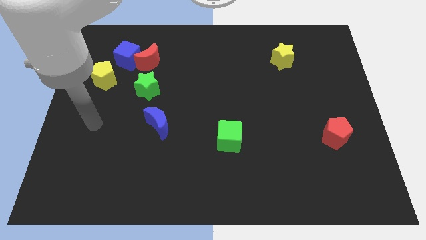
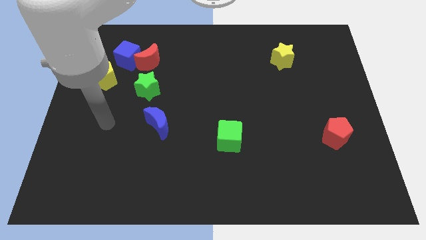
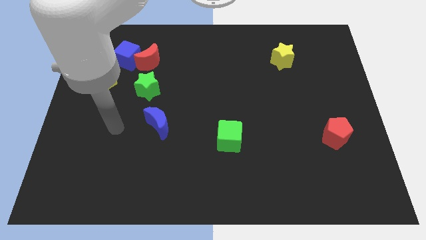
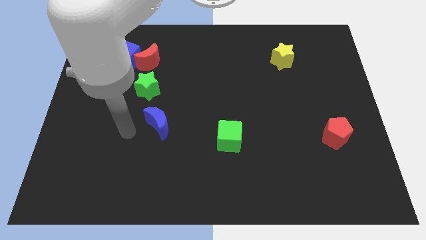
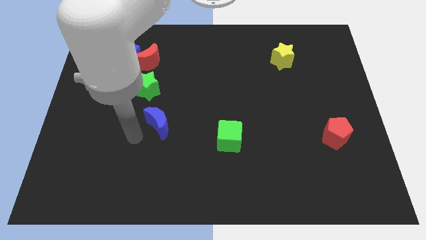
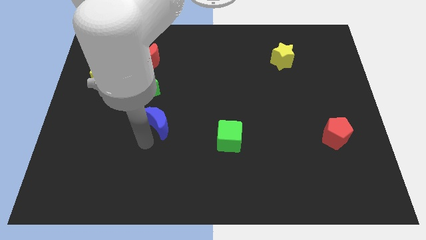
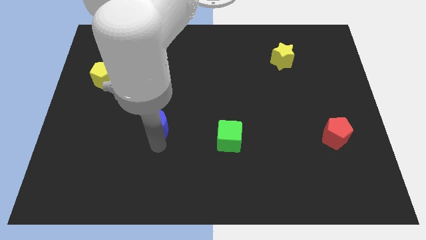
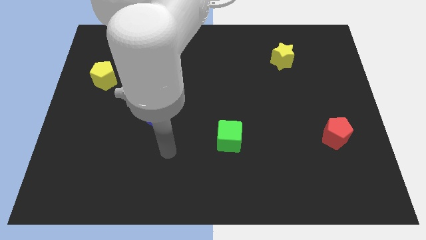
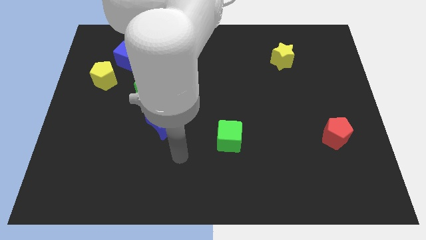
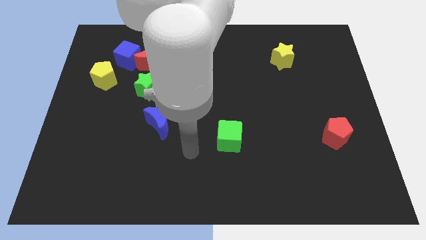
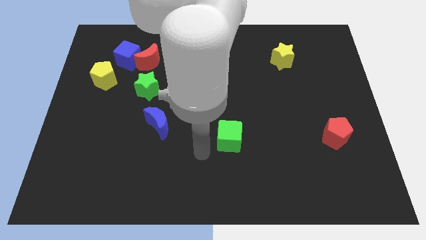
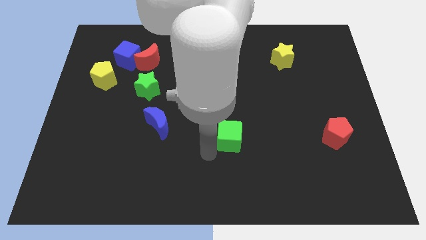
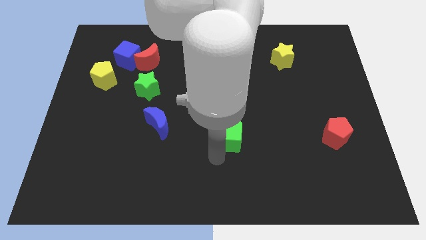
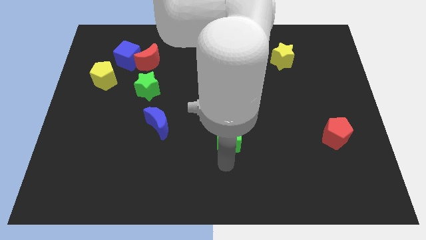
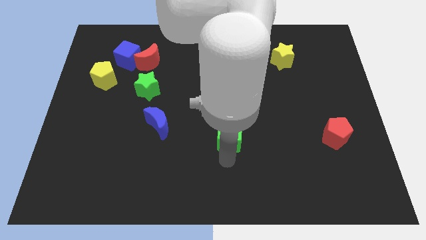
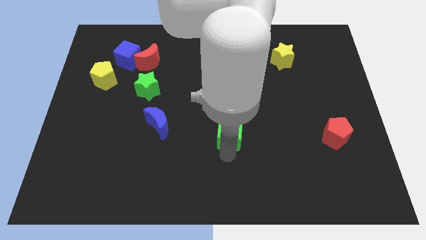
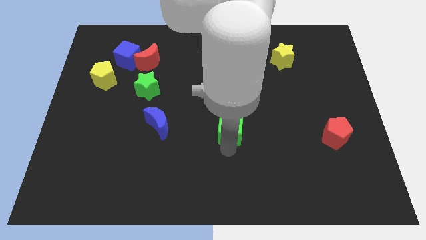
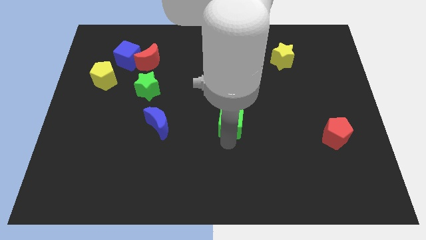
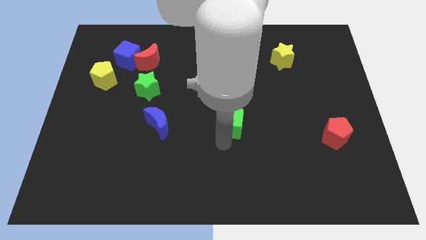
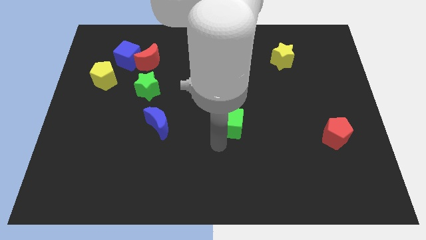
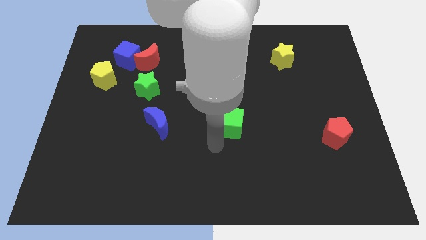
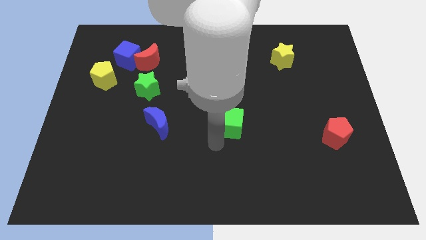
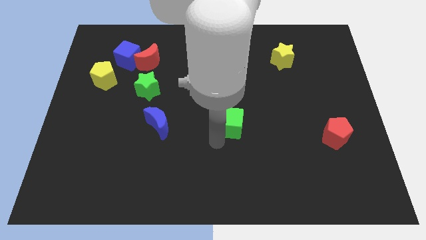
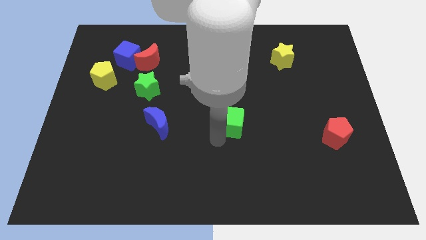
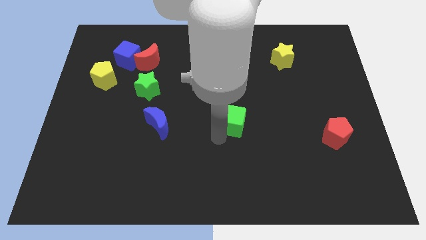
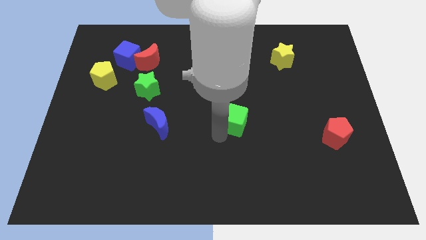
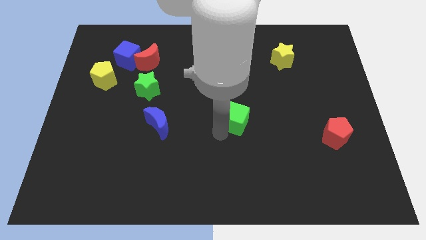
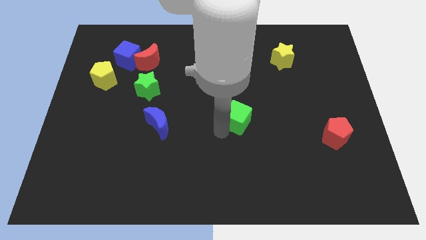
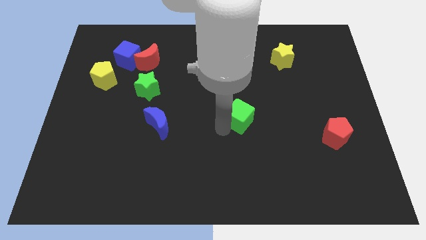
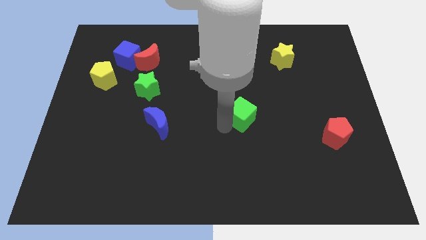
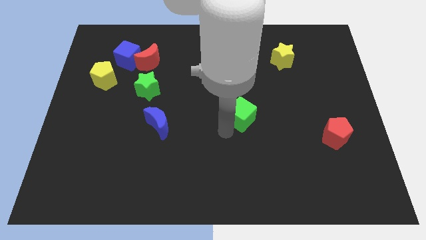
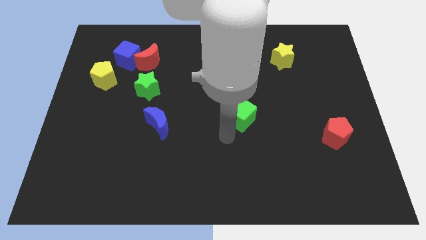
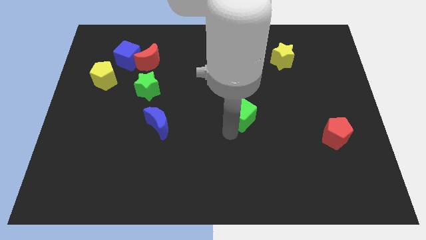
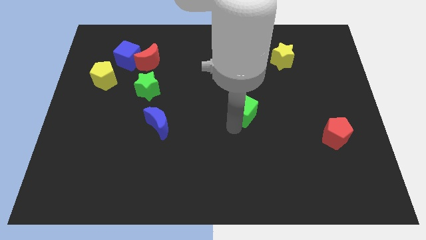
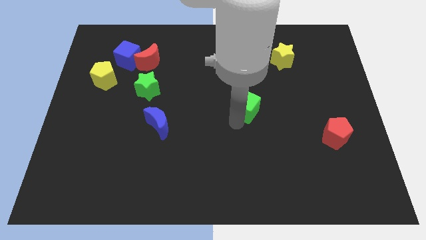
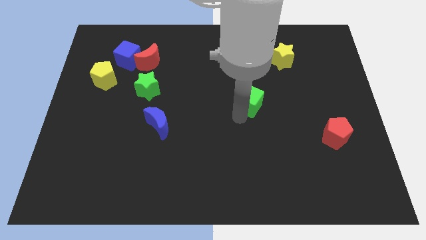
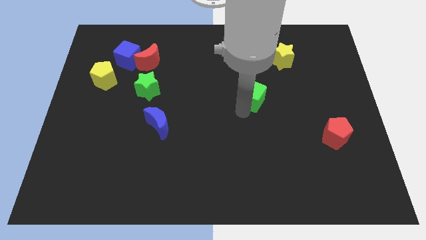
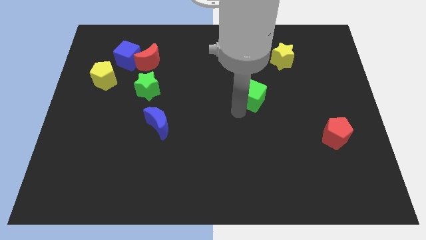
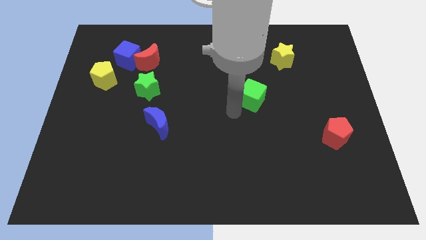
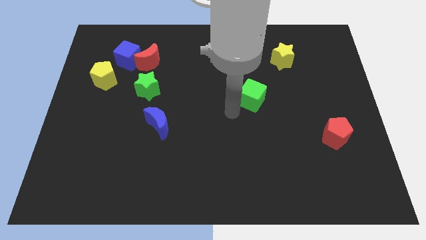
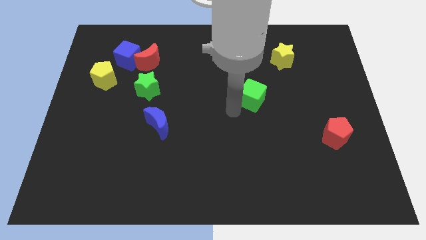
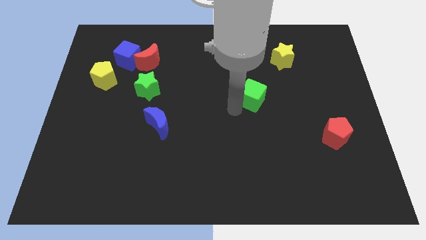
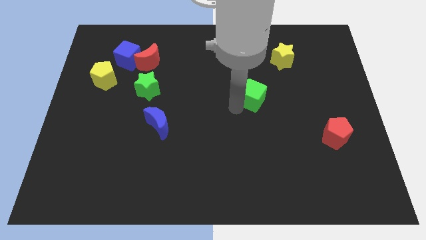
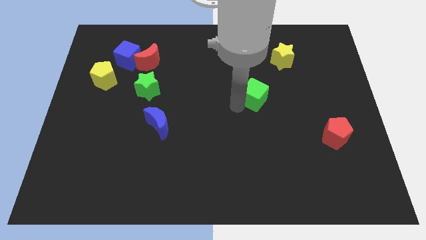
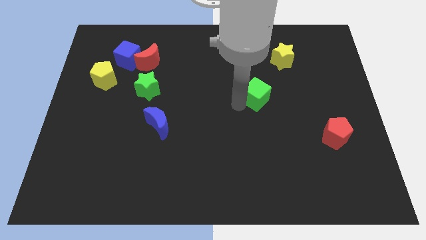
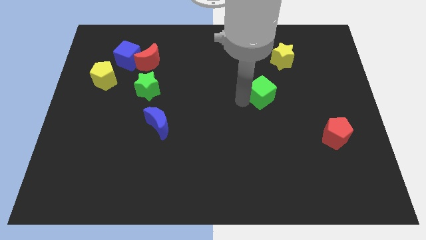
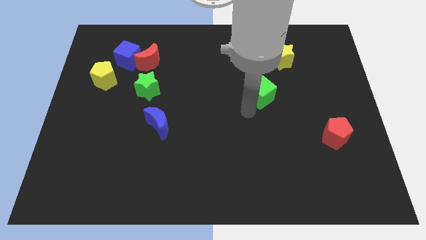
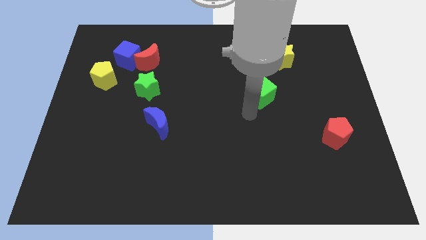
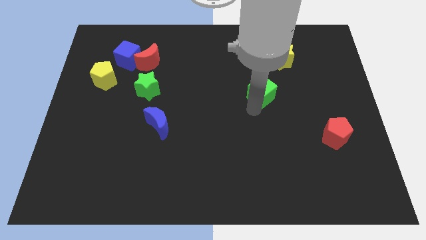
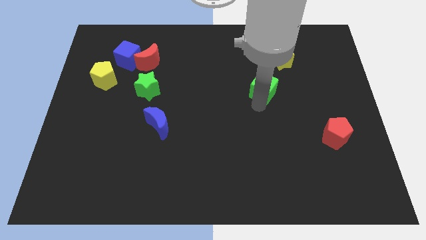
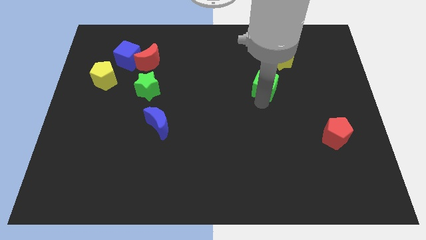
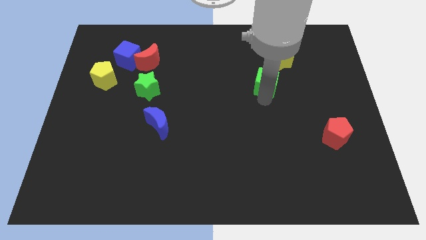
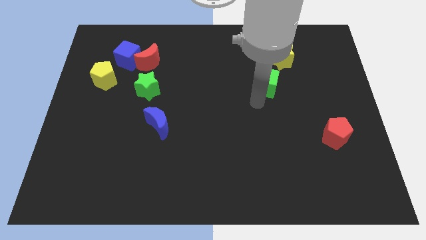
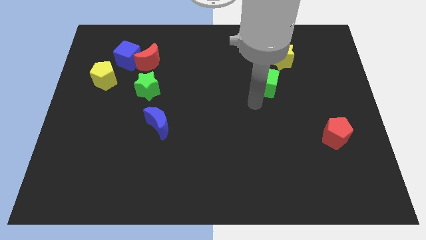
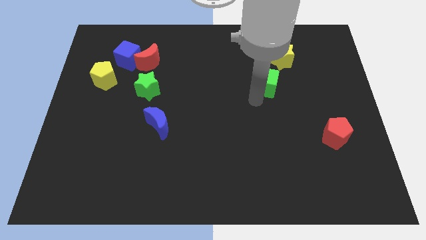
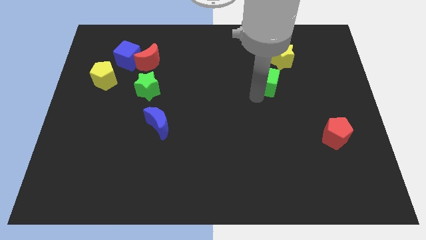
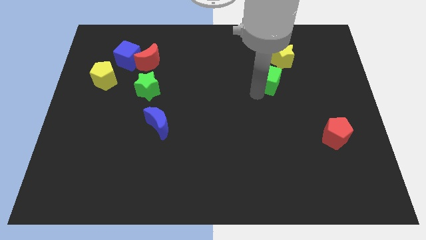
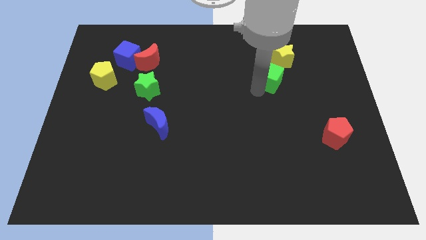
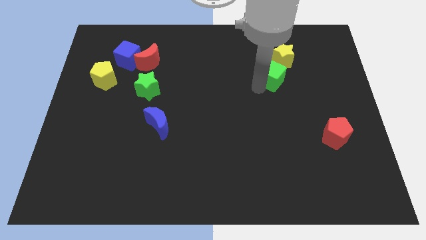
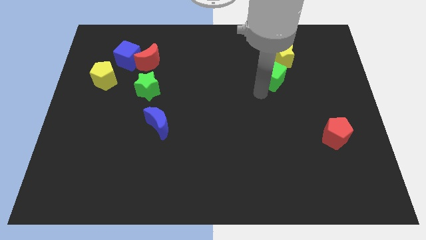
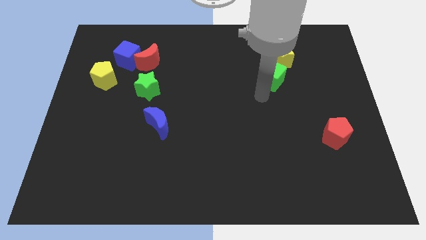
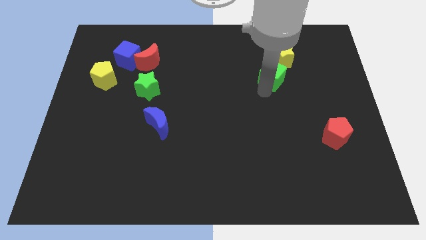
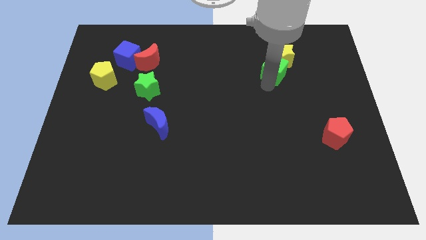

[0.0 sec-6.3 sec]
move the green cube towards the yellow star
